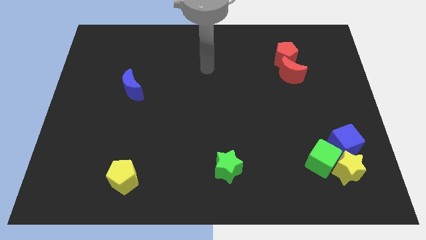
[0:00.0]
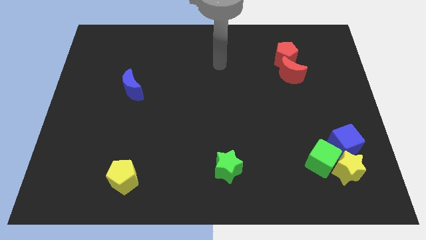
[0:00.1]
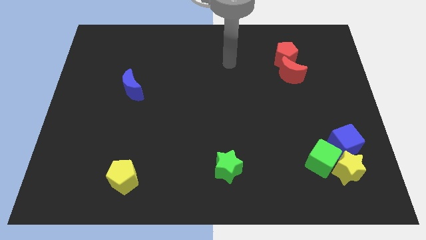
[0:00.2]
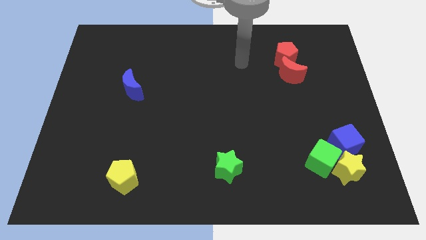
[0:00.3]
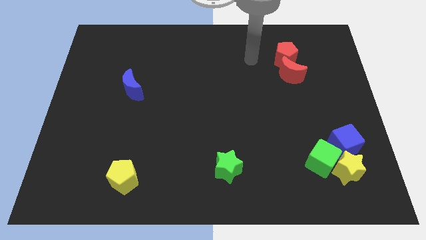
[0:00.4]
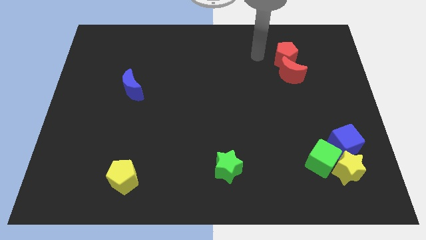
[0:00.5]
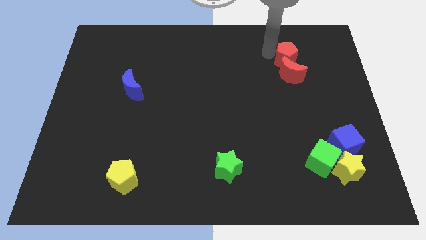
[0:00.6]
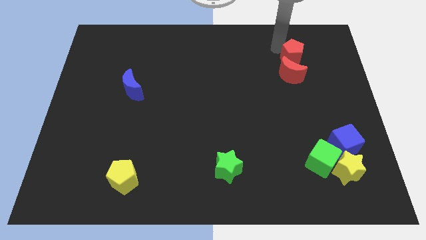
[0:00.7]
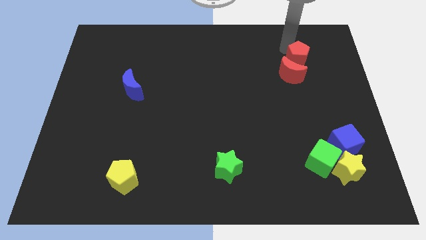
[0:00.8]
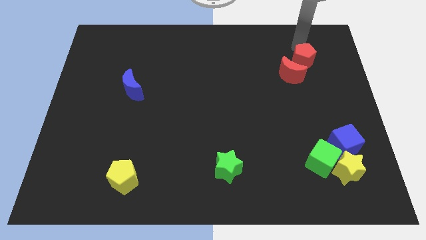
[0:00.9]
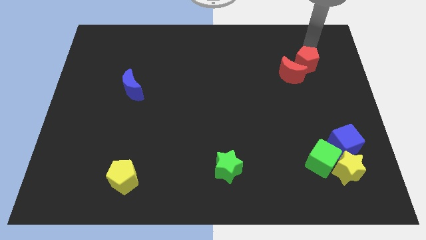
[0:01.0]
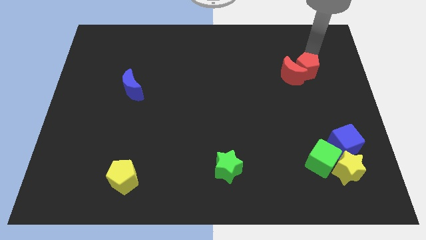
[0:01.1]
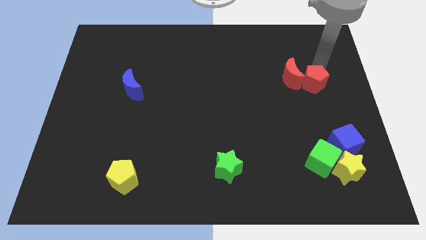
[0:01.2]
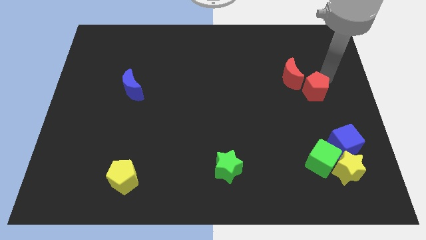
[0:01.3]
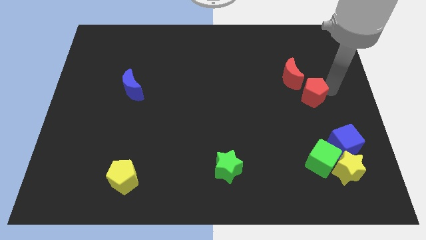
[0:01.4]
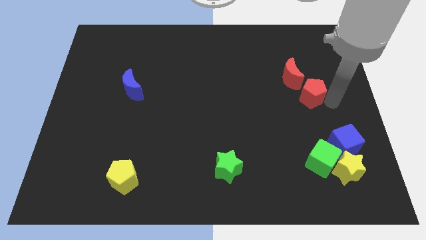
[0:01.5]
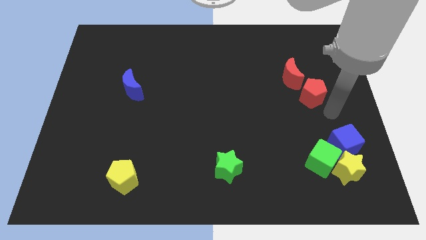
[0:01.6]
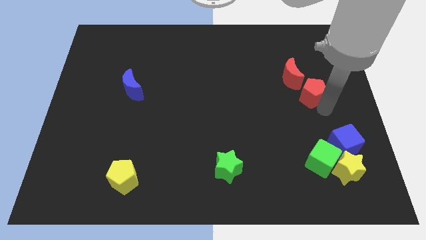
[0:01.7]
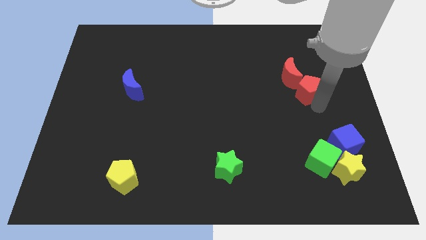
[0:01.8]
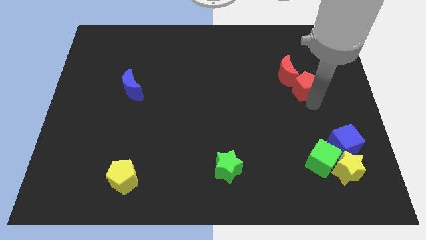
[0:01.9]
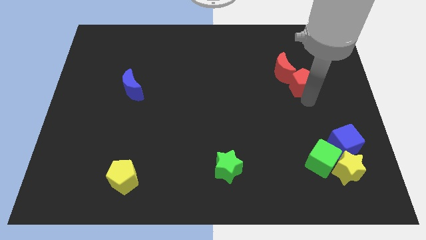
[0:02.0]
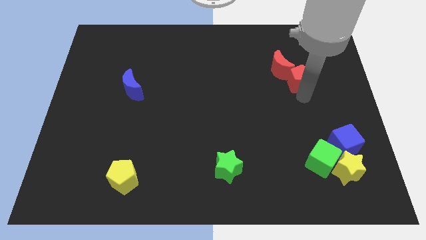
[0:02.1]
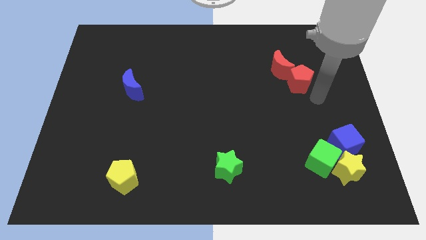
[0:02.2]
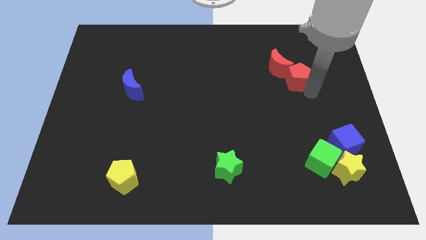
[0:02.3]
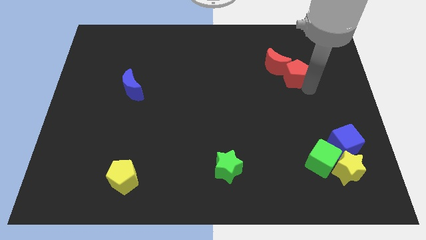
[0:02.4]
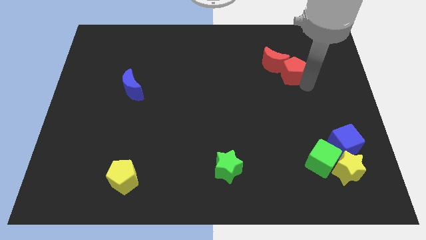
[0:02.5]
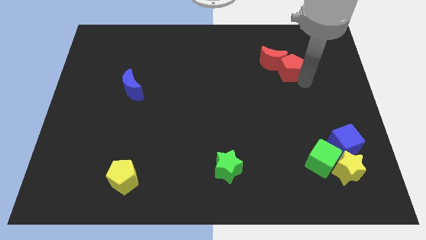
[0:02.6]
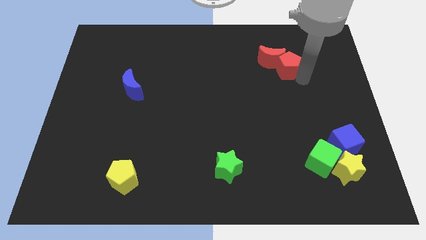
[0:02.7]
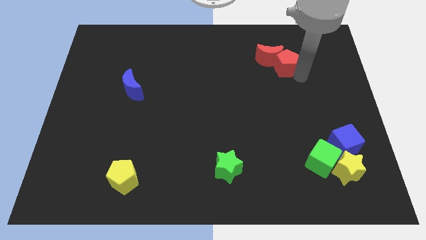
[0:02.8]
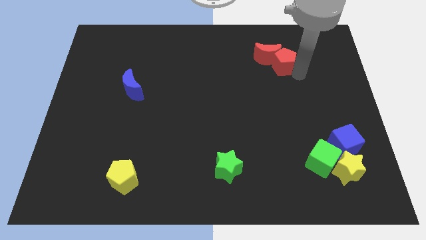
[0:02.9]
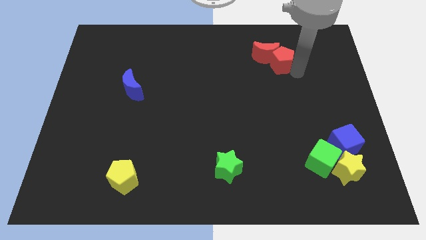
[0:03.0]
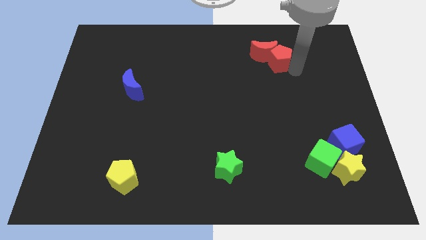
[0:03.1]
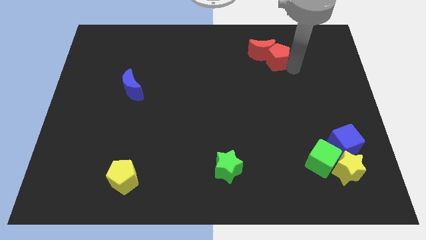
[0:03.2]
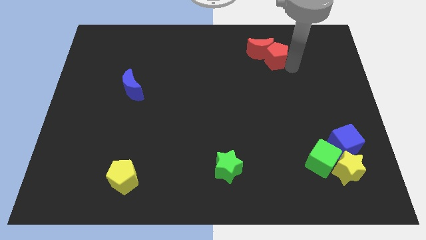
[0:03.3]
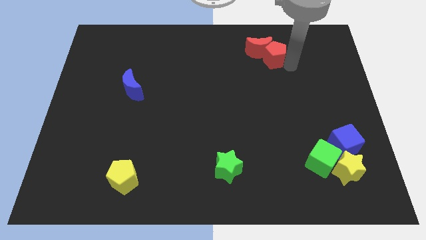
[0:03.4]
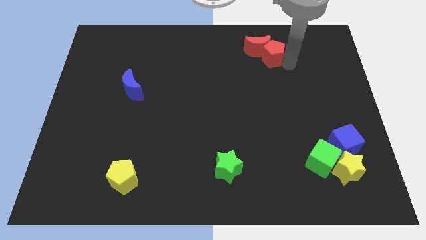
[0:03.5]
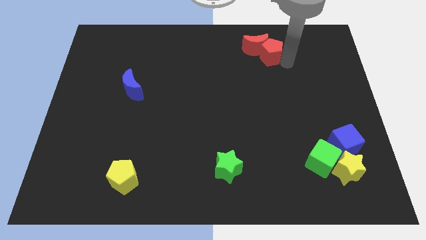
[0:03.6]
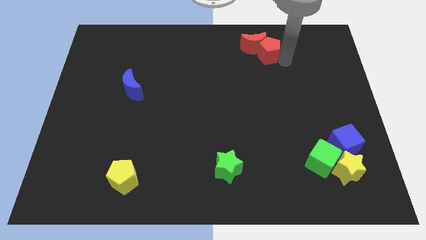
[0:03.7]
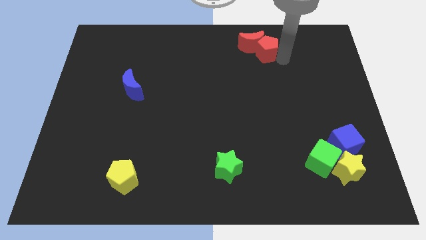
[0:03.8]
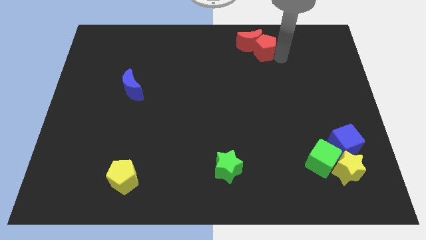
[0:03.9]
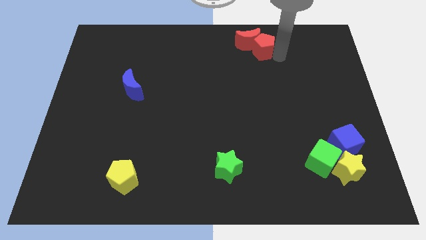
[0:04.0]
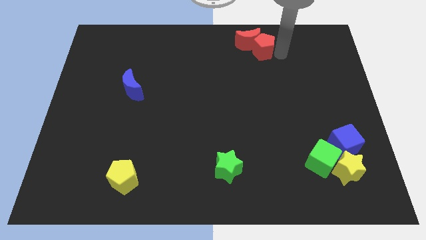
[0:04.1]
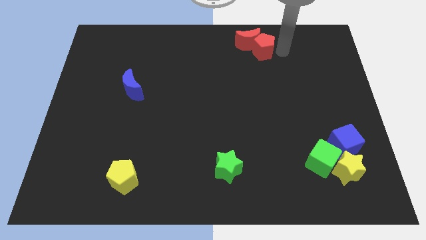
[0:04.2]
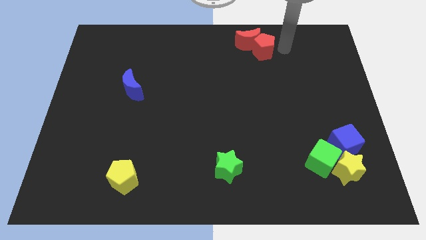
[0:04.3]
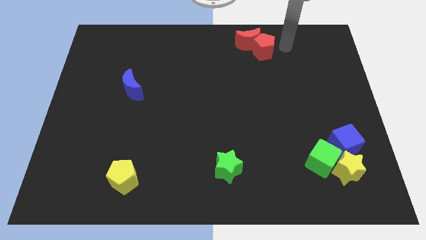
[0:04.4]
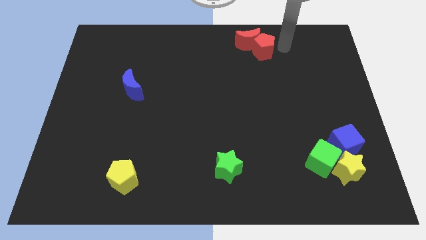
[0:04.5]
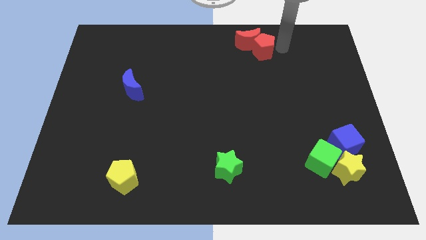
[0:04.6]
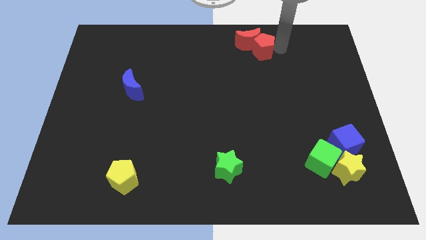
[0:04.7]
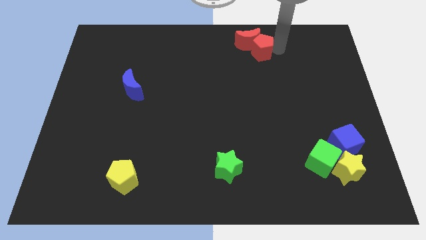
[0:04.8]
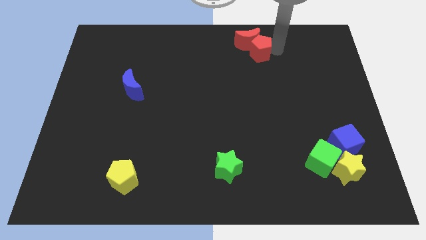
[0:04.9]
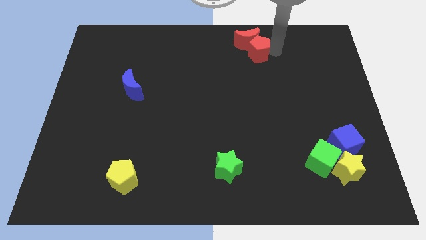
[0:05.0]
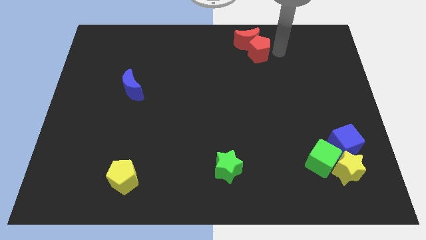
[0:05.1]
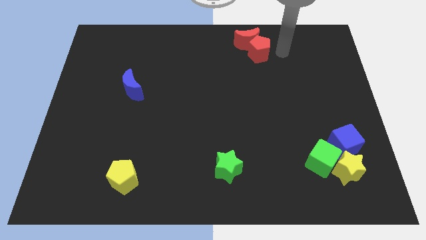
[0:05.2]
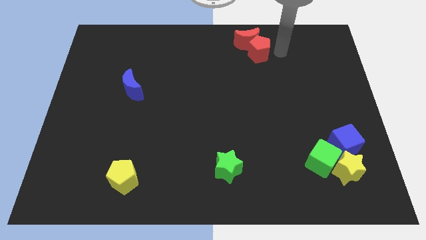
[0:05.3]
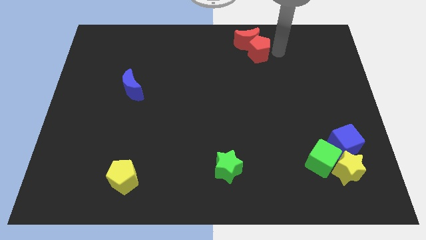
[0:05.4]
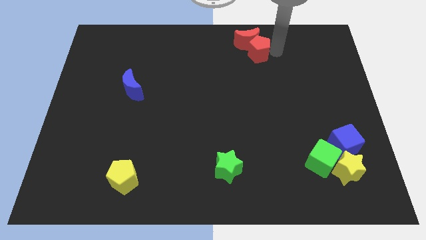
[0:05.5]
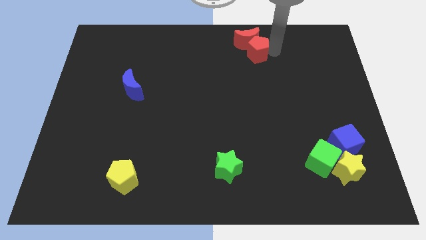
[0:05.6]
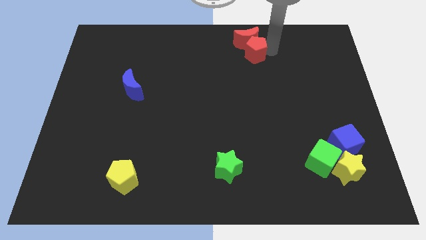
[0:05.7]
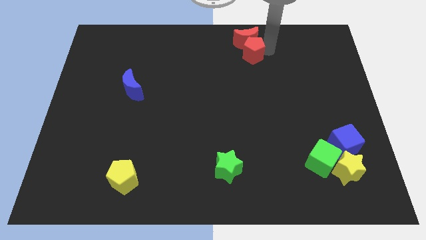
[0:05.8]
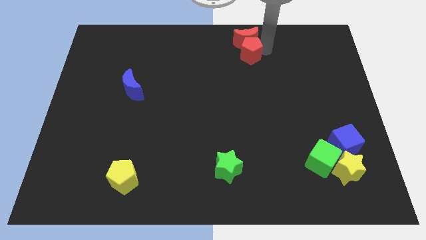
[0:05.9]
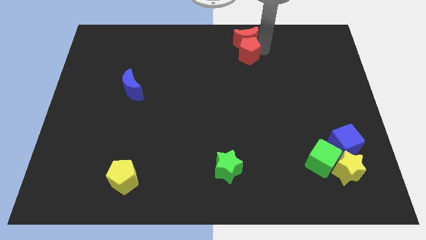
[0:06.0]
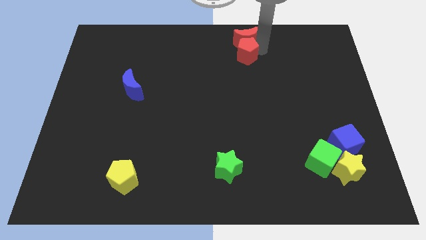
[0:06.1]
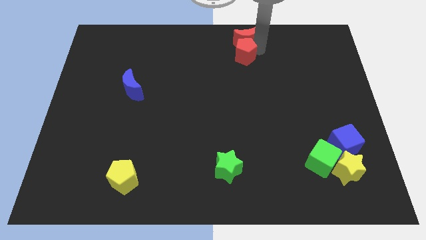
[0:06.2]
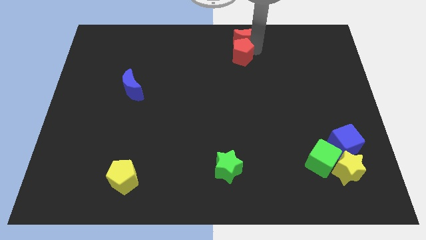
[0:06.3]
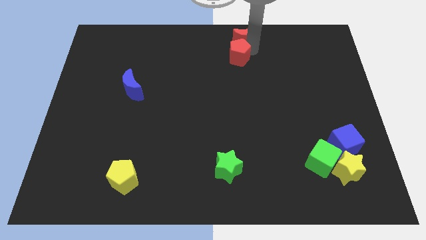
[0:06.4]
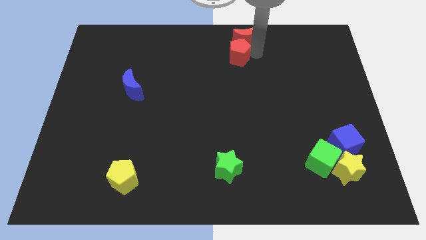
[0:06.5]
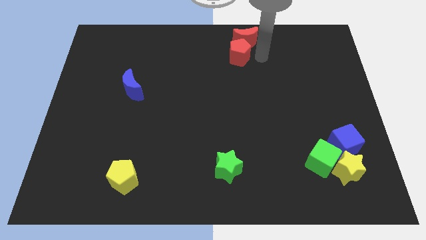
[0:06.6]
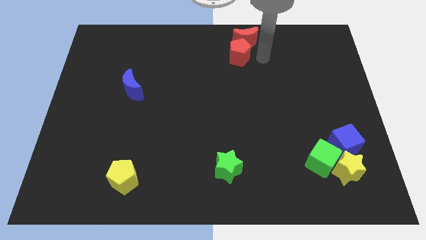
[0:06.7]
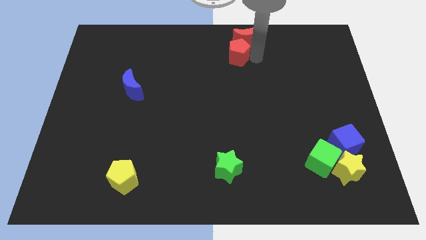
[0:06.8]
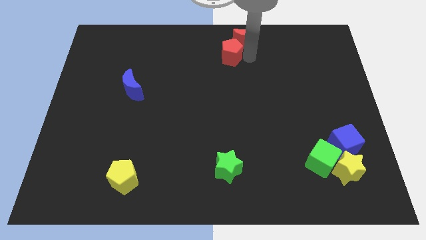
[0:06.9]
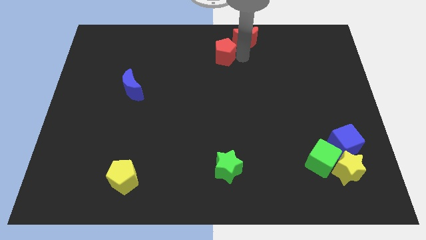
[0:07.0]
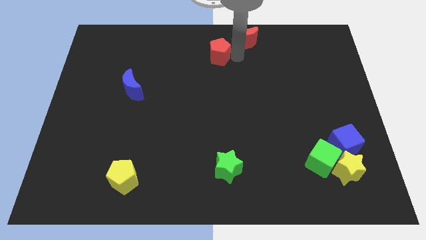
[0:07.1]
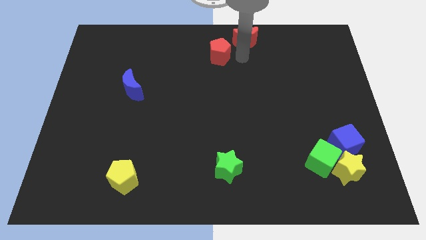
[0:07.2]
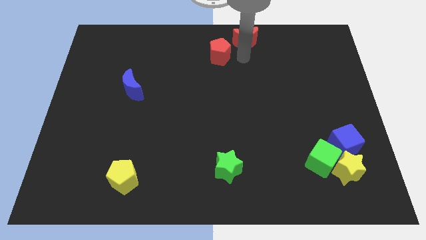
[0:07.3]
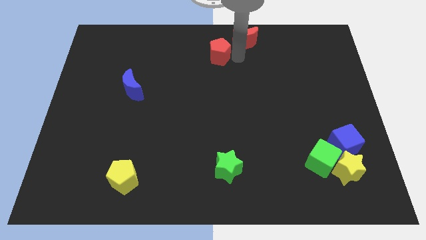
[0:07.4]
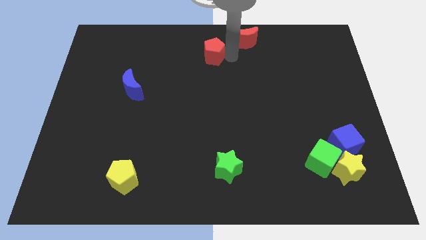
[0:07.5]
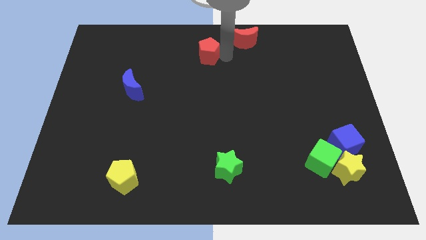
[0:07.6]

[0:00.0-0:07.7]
move the red pentagon to the left

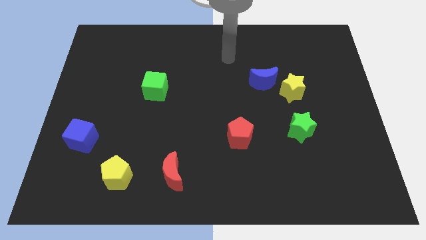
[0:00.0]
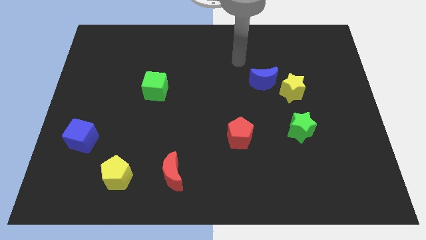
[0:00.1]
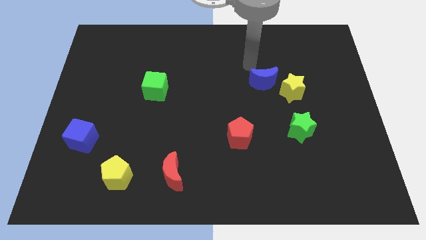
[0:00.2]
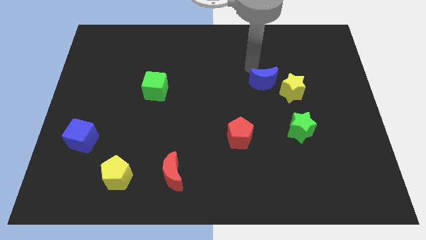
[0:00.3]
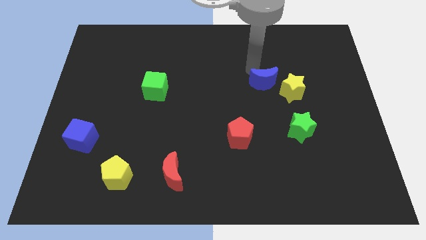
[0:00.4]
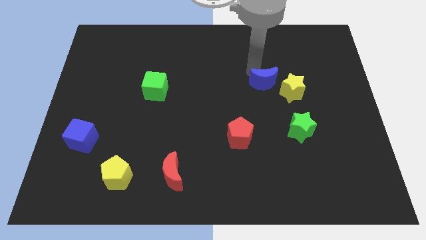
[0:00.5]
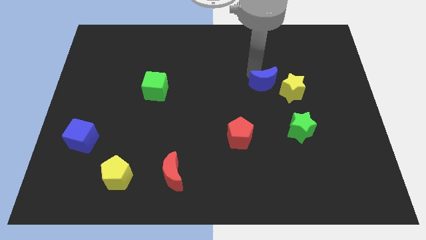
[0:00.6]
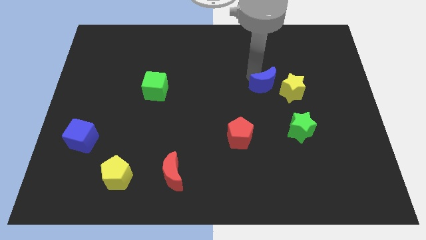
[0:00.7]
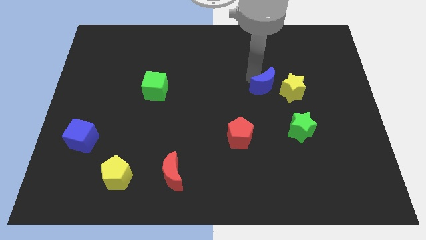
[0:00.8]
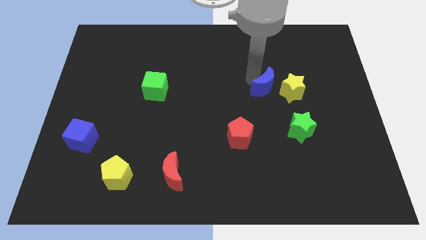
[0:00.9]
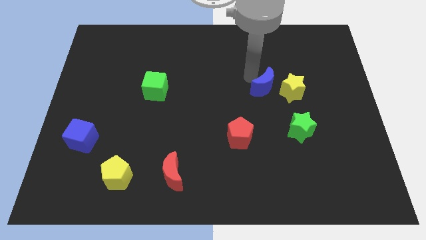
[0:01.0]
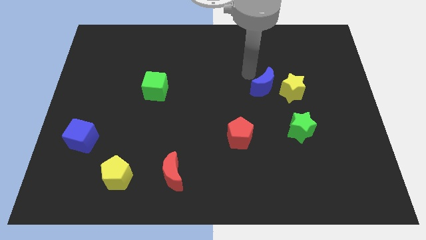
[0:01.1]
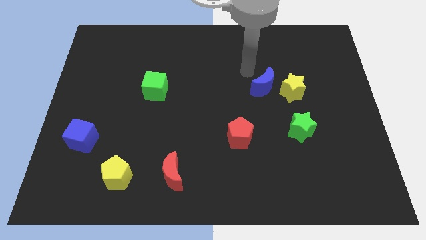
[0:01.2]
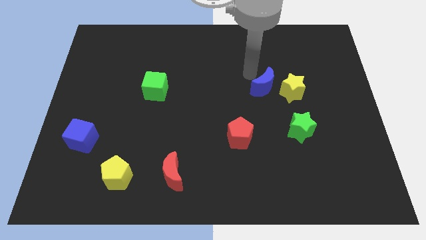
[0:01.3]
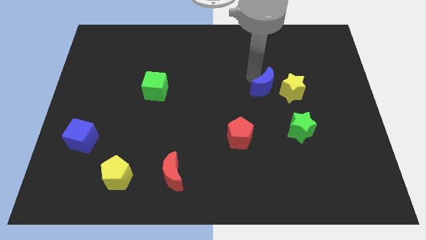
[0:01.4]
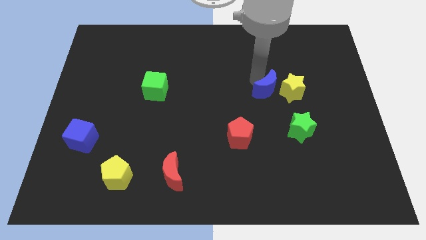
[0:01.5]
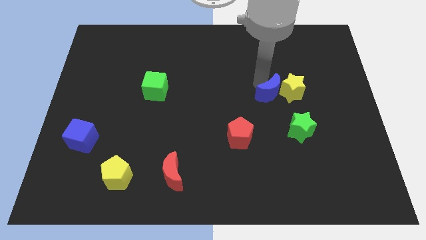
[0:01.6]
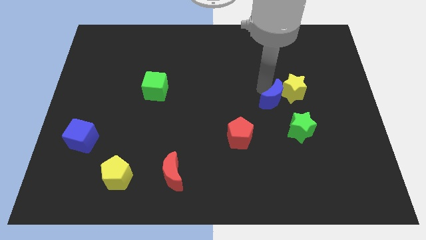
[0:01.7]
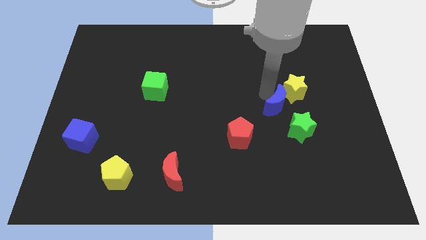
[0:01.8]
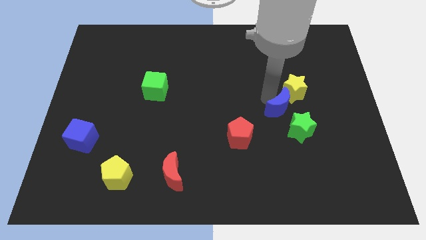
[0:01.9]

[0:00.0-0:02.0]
move the blue moon down and right a bit
